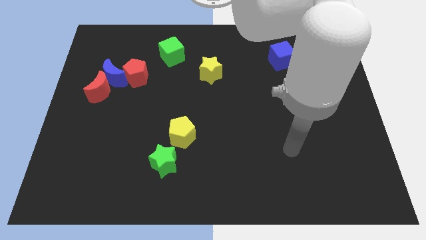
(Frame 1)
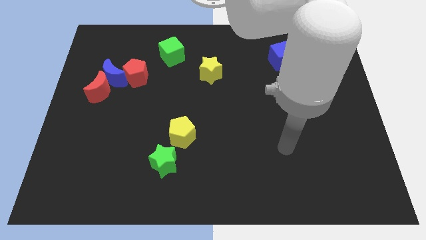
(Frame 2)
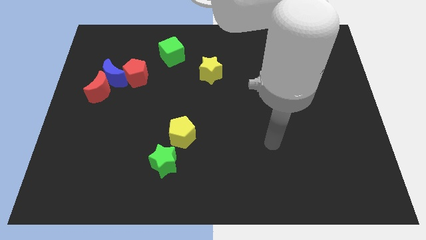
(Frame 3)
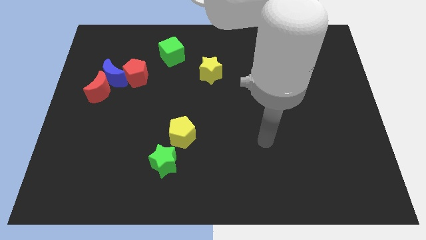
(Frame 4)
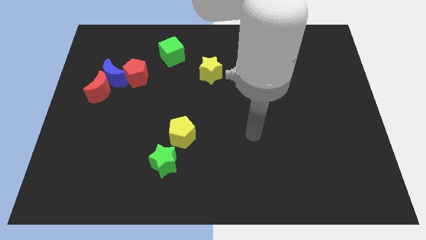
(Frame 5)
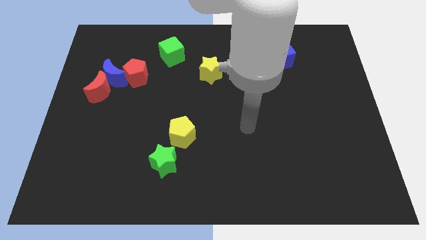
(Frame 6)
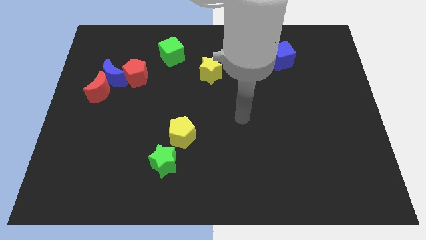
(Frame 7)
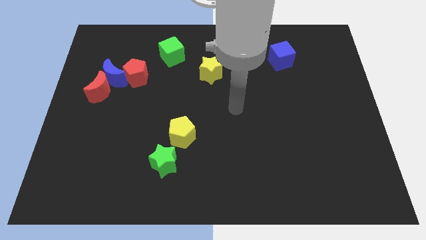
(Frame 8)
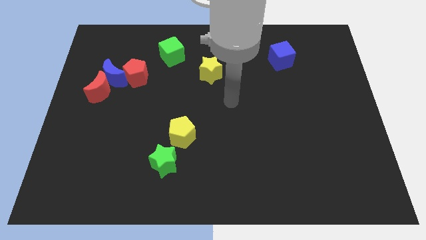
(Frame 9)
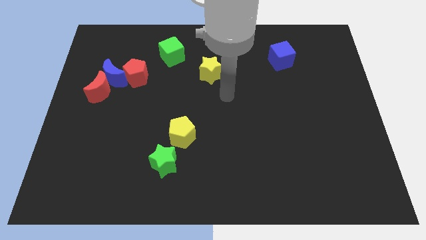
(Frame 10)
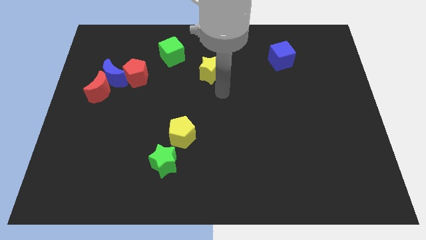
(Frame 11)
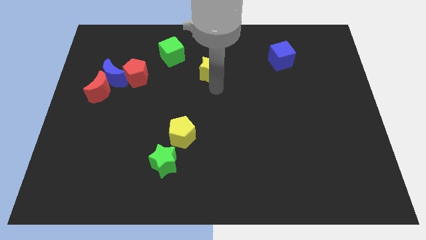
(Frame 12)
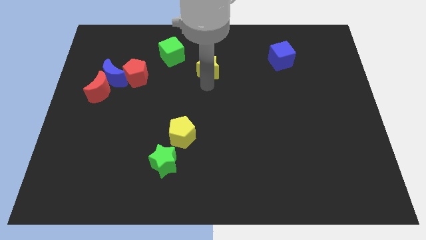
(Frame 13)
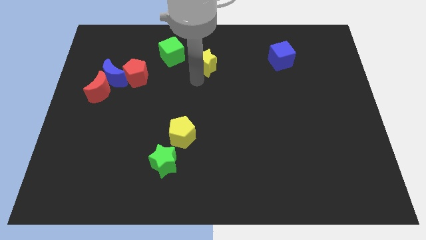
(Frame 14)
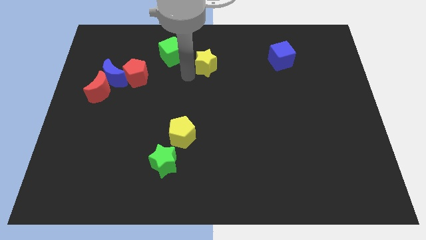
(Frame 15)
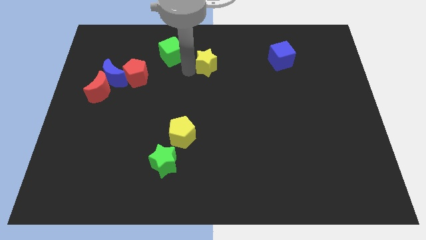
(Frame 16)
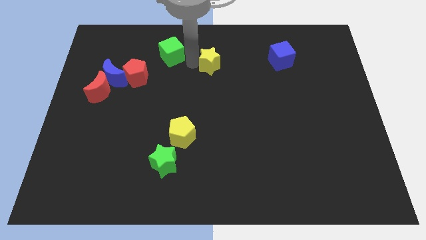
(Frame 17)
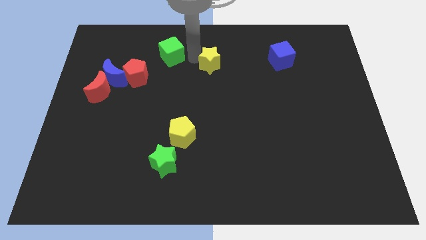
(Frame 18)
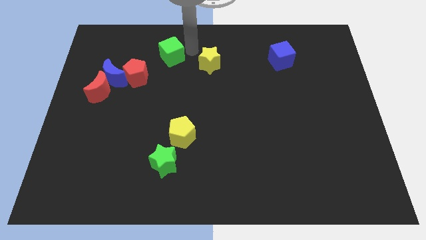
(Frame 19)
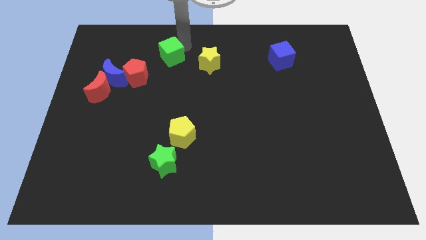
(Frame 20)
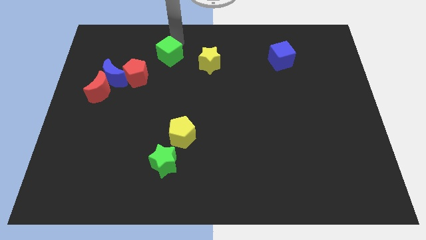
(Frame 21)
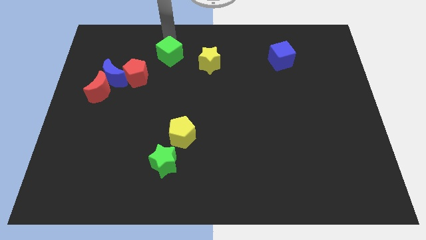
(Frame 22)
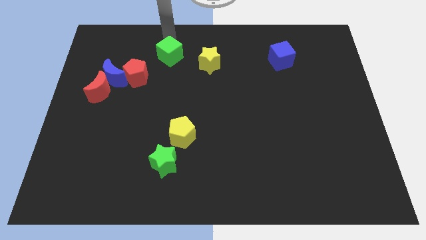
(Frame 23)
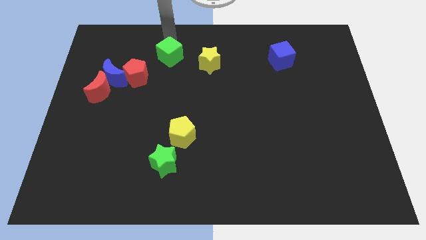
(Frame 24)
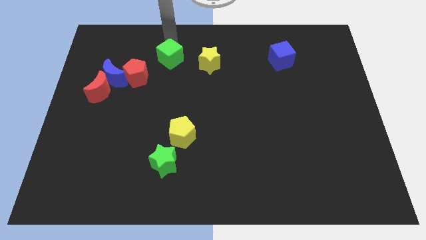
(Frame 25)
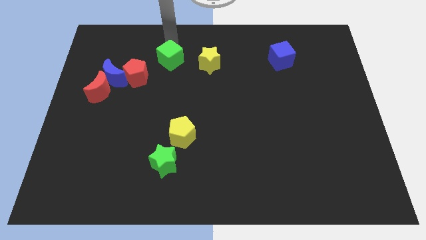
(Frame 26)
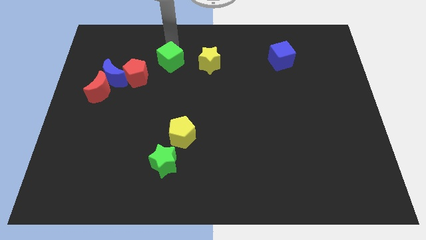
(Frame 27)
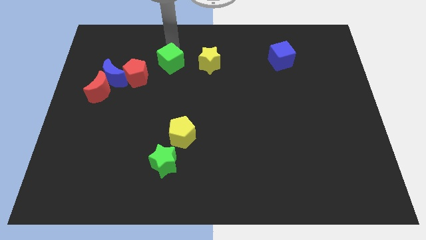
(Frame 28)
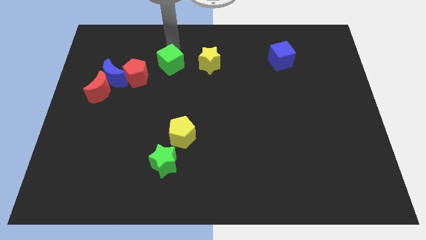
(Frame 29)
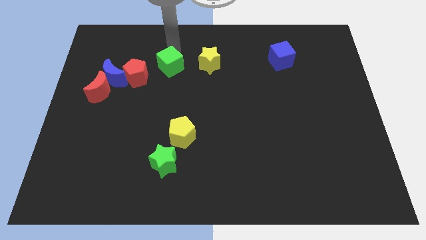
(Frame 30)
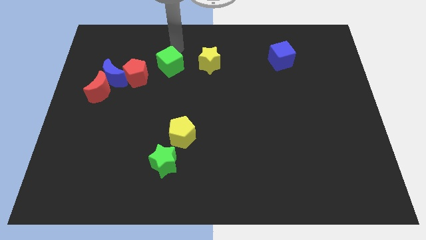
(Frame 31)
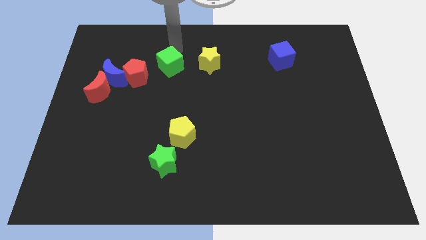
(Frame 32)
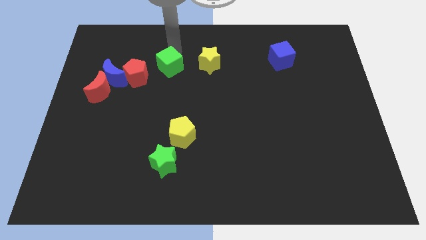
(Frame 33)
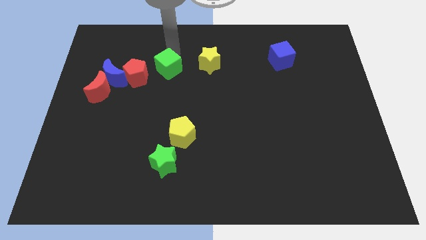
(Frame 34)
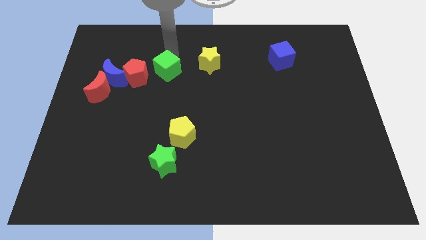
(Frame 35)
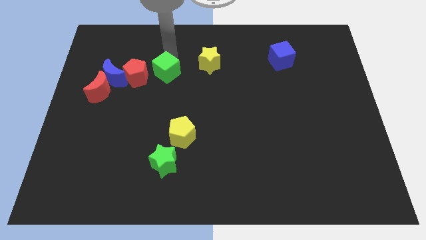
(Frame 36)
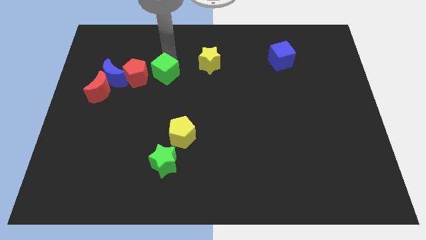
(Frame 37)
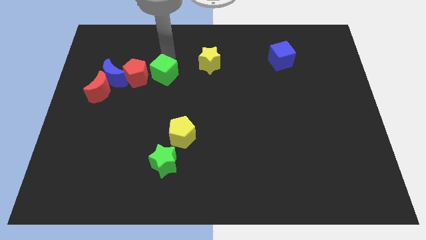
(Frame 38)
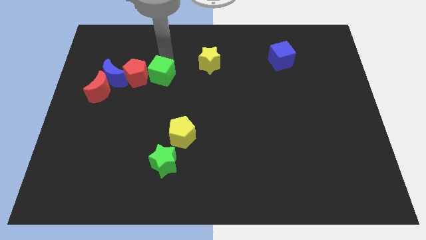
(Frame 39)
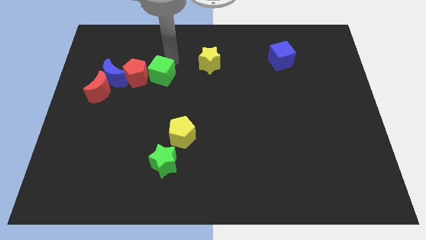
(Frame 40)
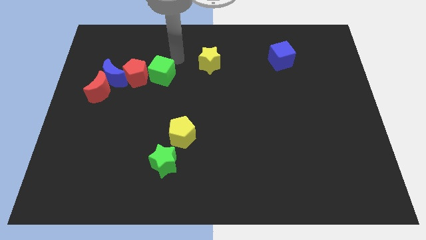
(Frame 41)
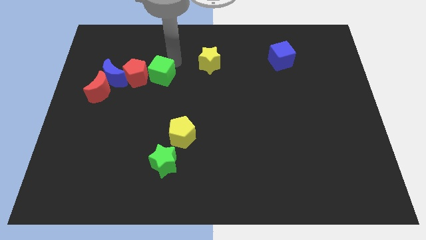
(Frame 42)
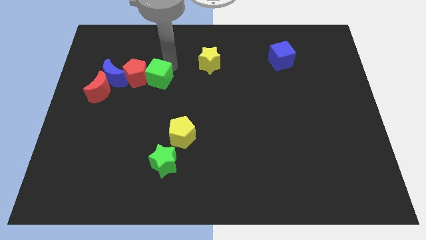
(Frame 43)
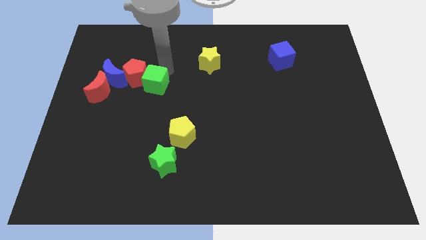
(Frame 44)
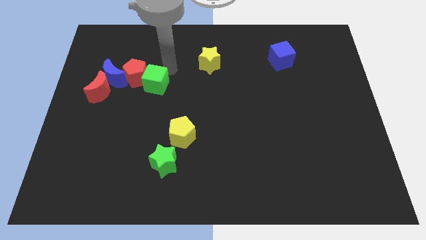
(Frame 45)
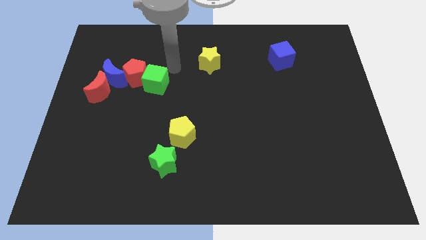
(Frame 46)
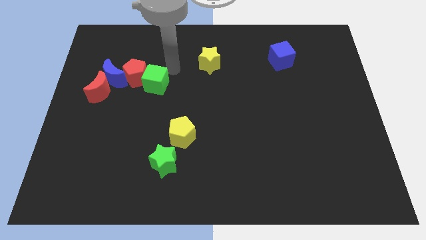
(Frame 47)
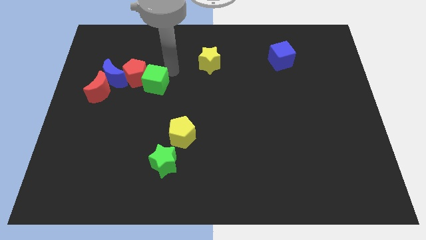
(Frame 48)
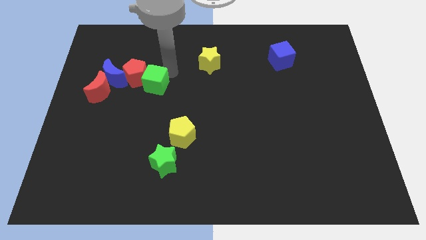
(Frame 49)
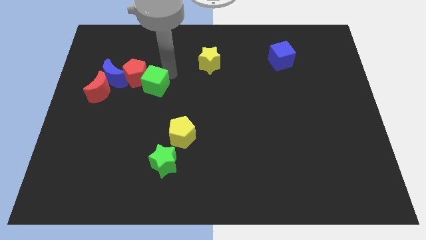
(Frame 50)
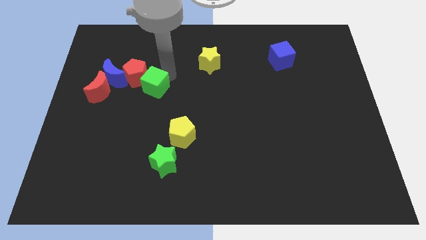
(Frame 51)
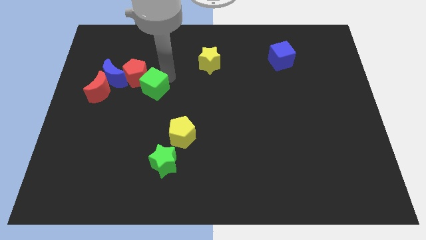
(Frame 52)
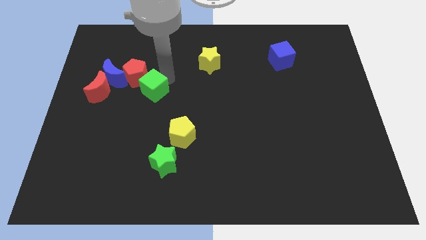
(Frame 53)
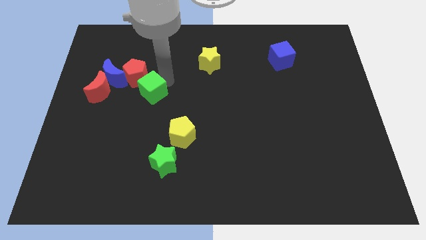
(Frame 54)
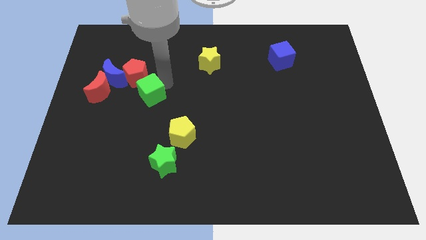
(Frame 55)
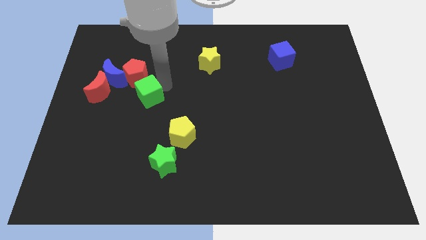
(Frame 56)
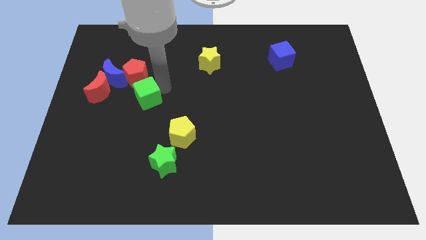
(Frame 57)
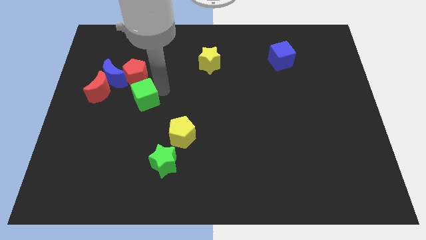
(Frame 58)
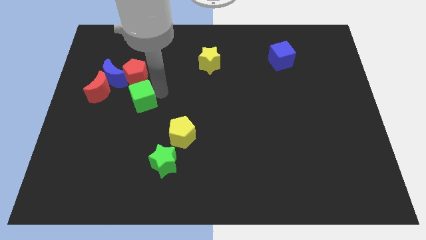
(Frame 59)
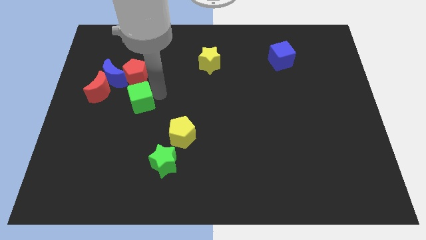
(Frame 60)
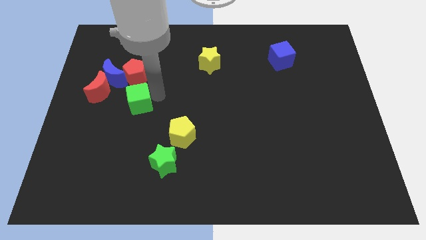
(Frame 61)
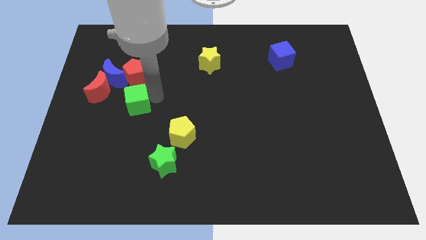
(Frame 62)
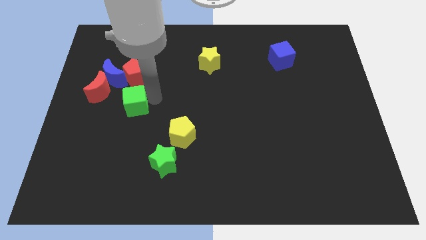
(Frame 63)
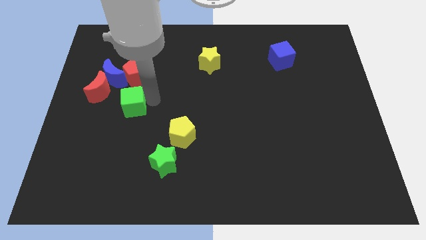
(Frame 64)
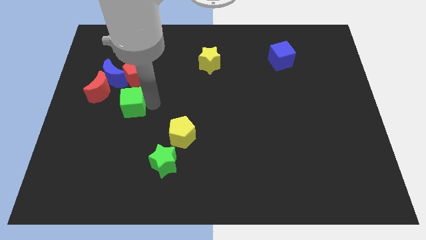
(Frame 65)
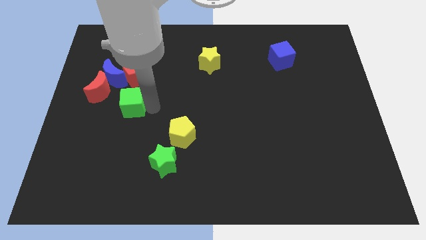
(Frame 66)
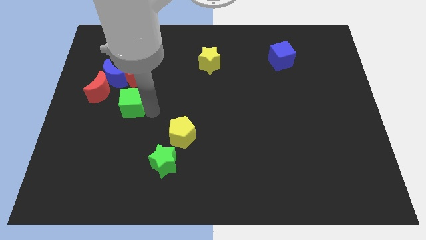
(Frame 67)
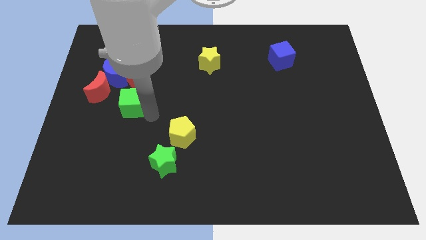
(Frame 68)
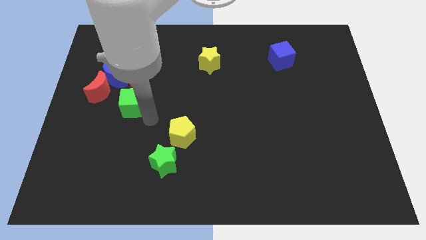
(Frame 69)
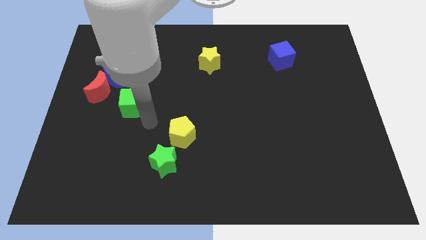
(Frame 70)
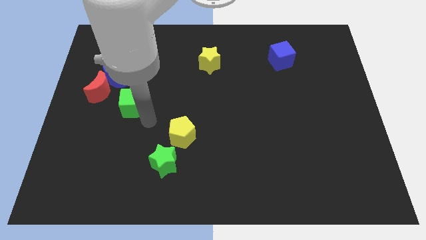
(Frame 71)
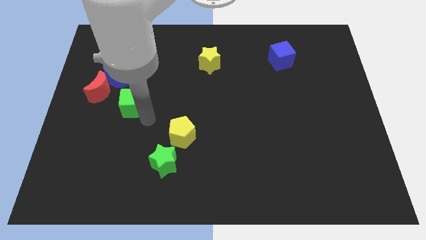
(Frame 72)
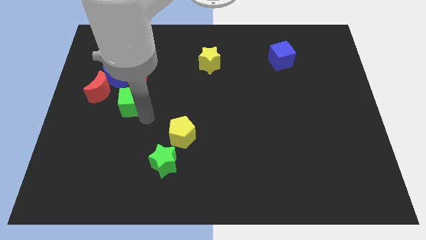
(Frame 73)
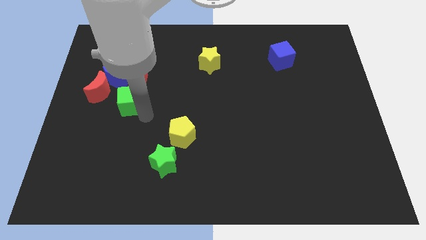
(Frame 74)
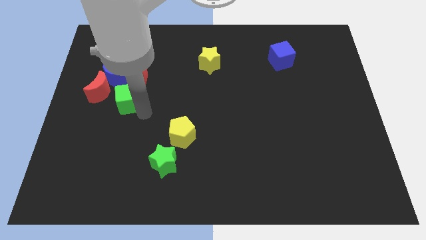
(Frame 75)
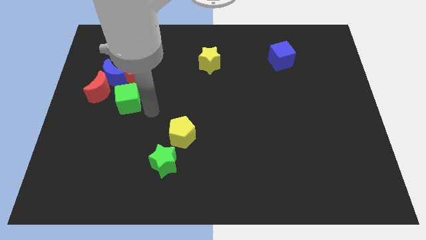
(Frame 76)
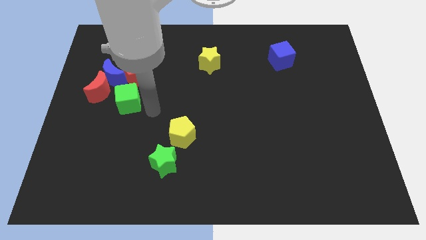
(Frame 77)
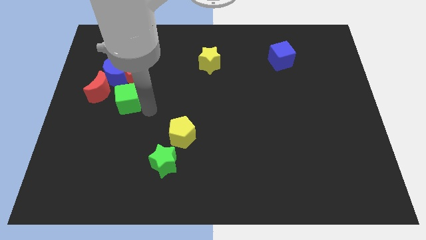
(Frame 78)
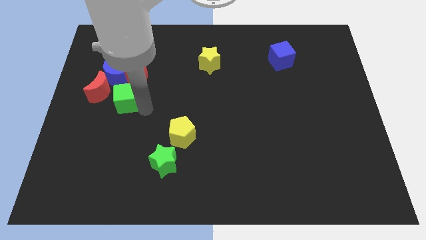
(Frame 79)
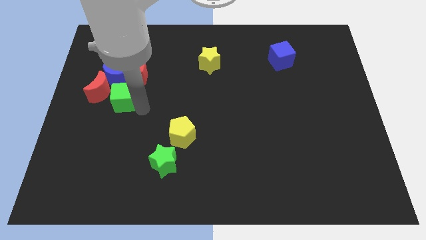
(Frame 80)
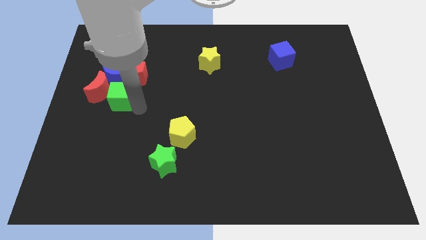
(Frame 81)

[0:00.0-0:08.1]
move the green cube close to the red moon
